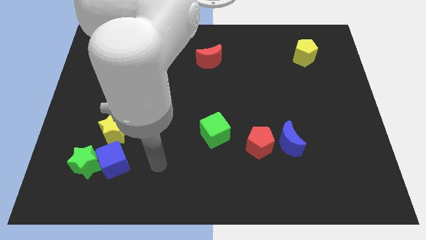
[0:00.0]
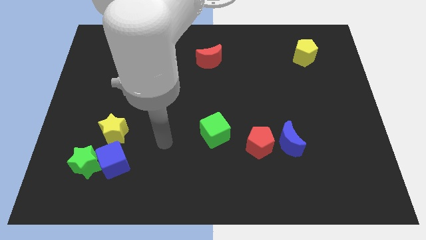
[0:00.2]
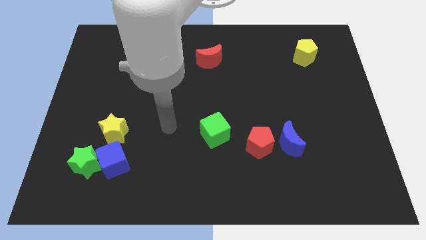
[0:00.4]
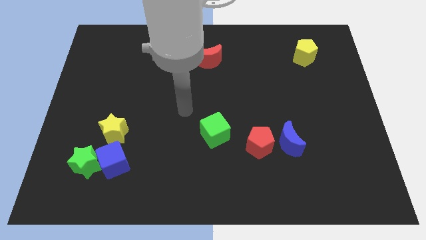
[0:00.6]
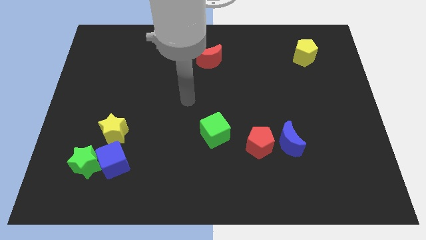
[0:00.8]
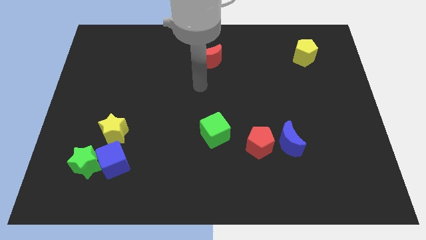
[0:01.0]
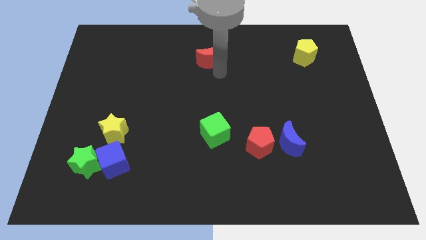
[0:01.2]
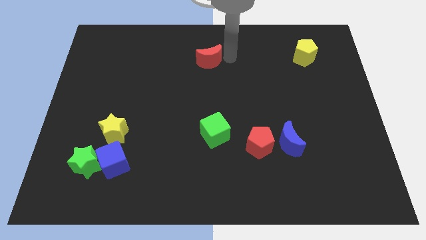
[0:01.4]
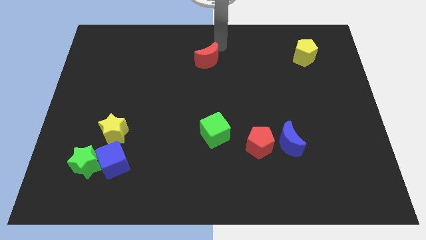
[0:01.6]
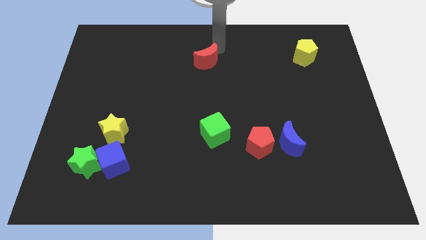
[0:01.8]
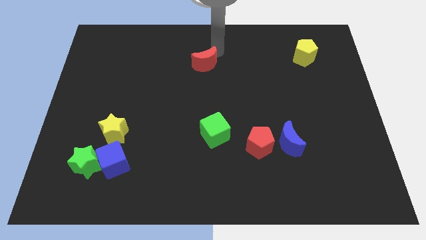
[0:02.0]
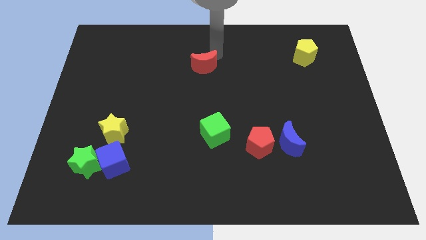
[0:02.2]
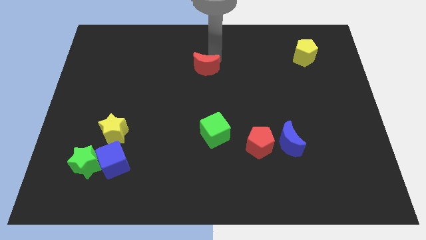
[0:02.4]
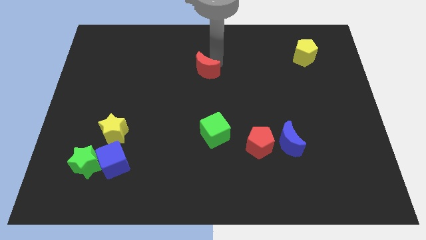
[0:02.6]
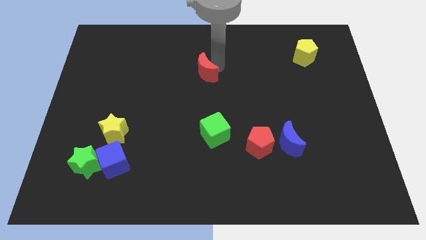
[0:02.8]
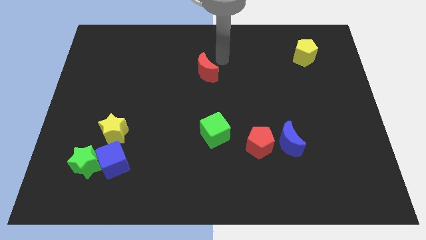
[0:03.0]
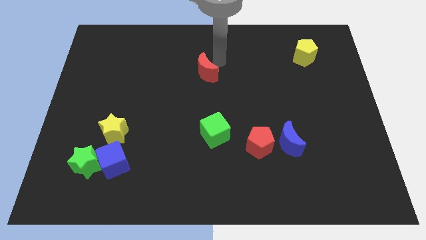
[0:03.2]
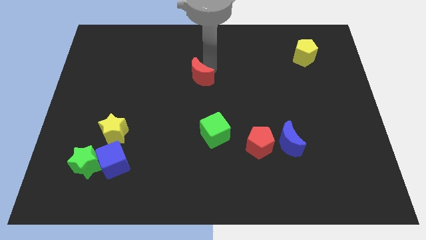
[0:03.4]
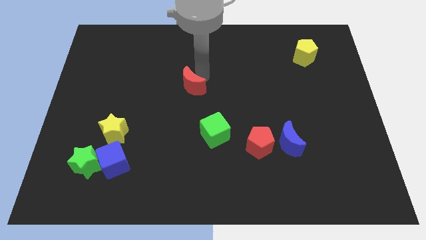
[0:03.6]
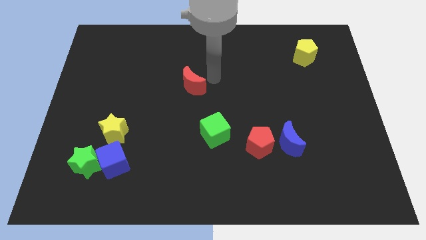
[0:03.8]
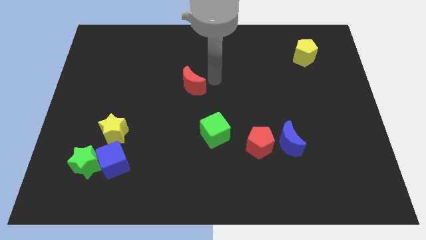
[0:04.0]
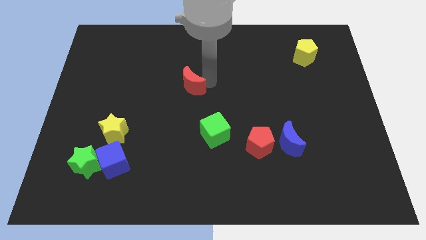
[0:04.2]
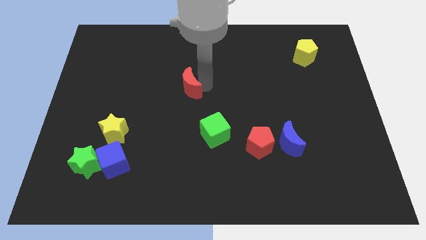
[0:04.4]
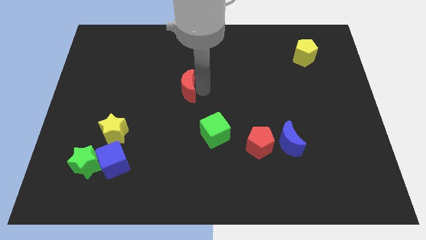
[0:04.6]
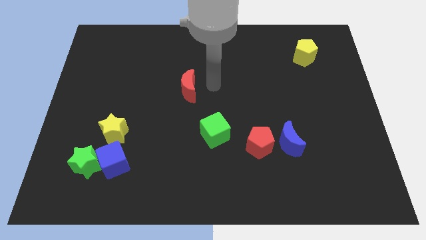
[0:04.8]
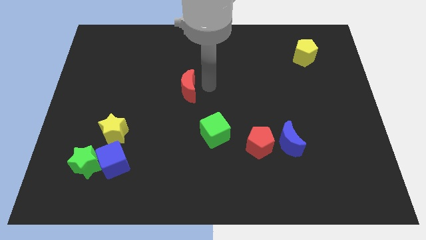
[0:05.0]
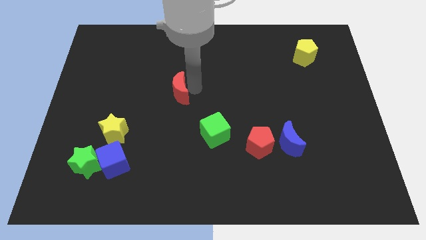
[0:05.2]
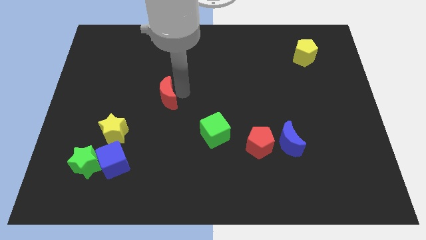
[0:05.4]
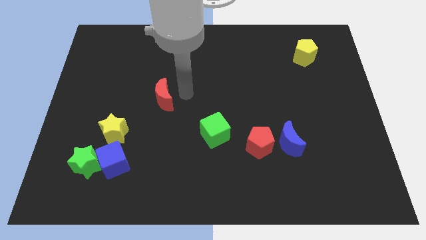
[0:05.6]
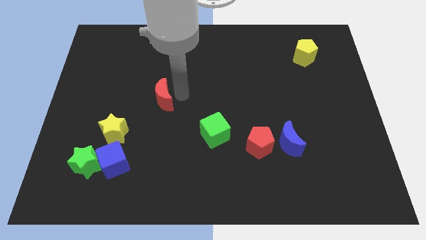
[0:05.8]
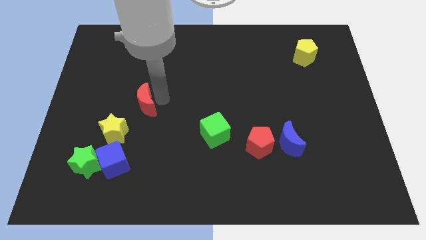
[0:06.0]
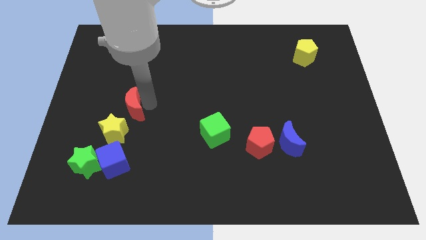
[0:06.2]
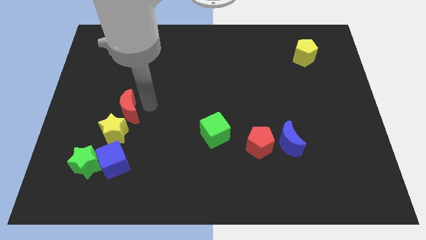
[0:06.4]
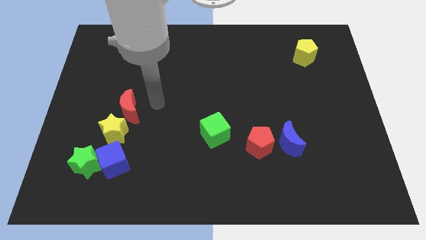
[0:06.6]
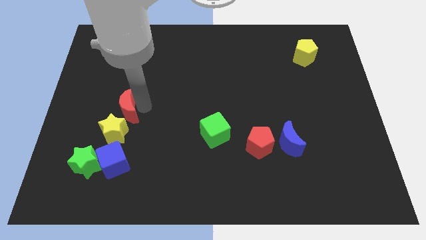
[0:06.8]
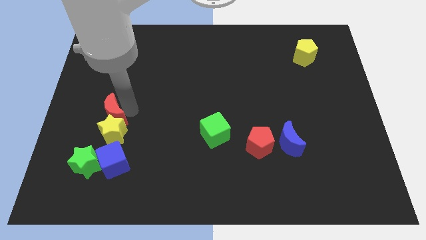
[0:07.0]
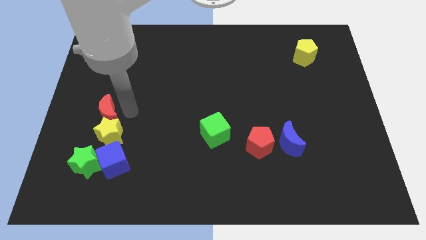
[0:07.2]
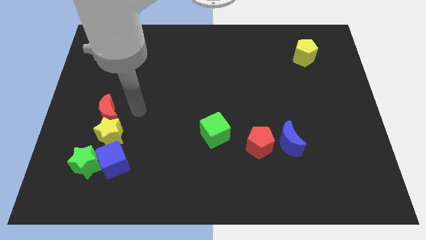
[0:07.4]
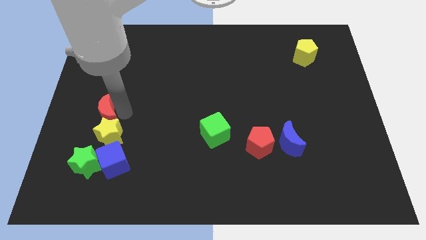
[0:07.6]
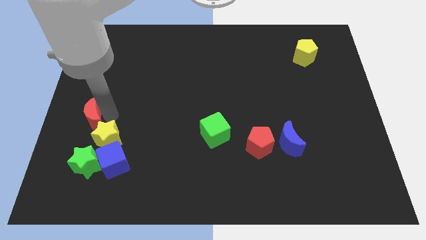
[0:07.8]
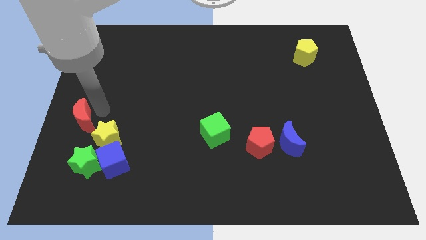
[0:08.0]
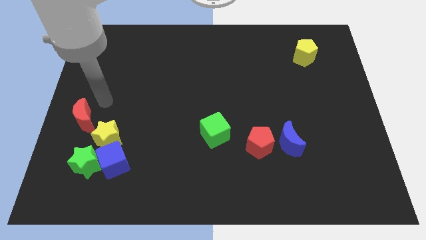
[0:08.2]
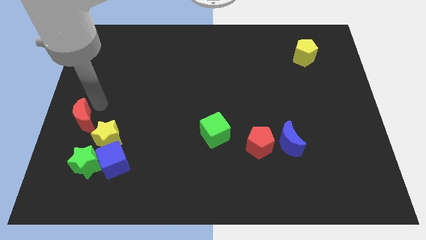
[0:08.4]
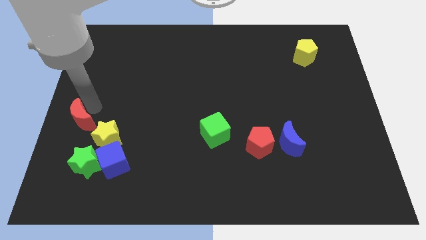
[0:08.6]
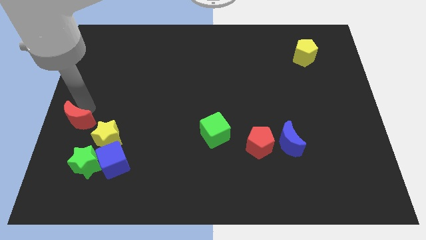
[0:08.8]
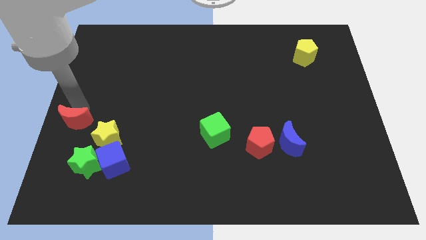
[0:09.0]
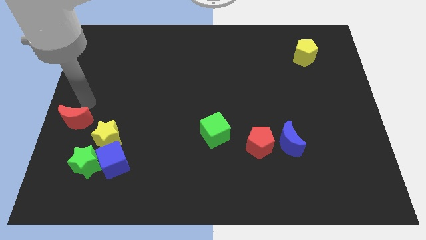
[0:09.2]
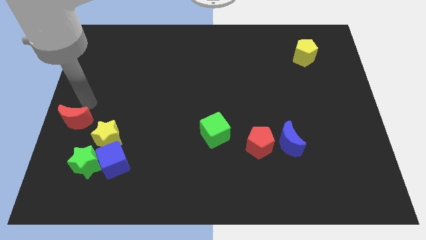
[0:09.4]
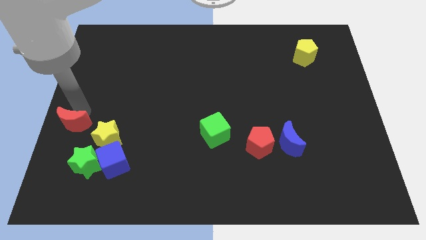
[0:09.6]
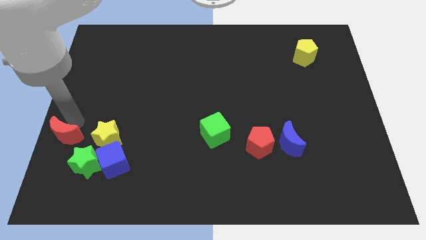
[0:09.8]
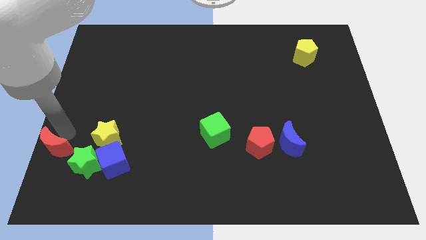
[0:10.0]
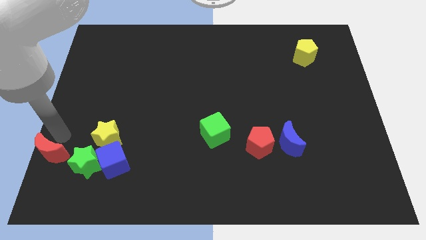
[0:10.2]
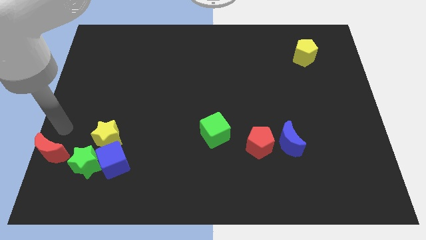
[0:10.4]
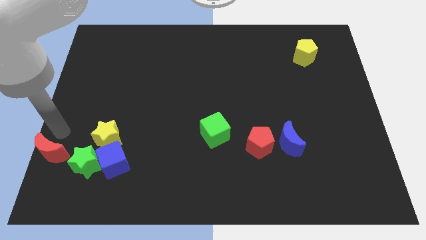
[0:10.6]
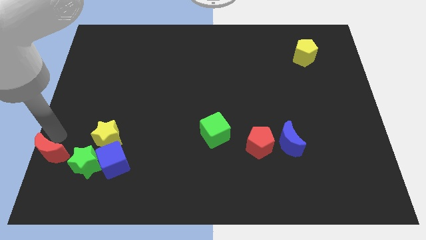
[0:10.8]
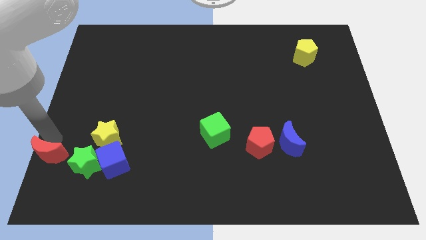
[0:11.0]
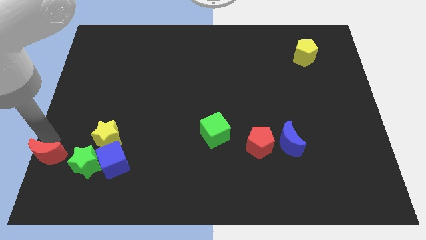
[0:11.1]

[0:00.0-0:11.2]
slide the red moon to the bottom left corner
